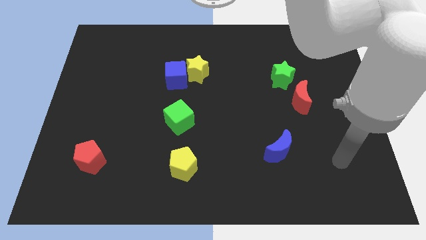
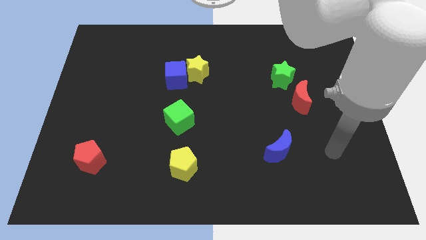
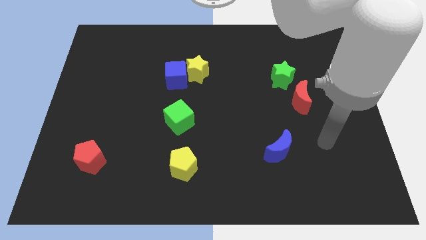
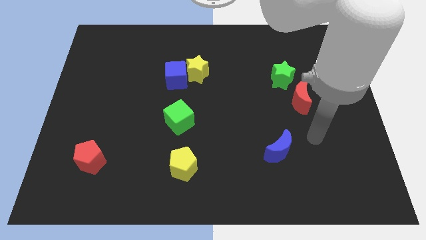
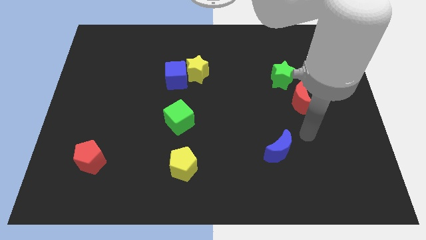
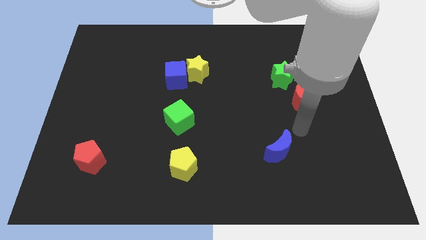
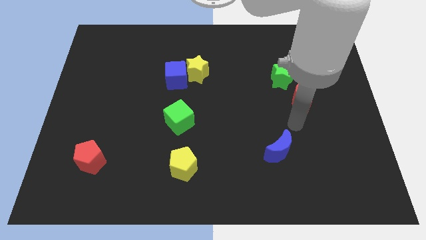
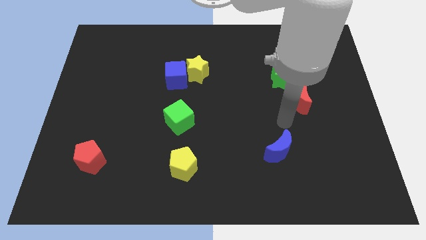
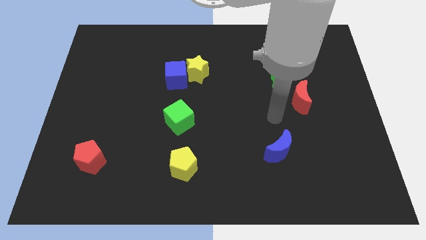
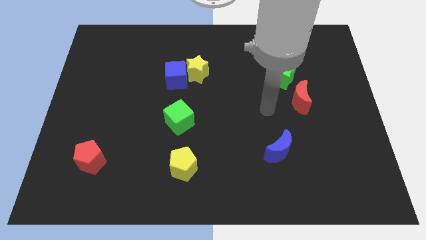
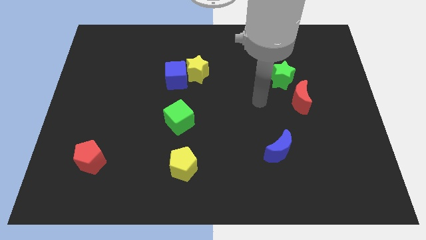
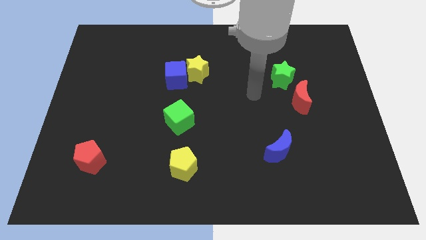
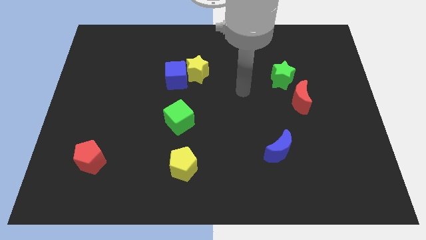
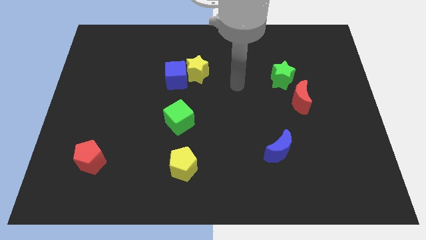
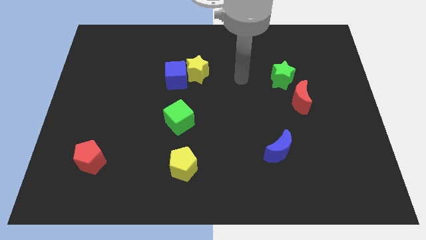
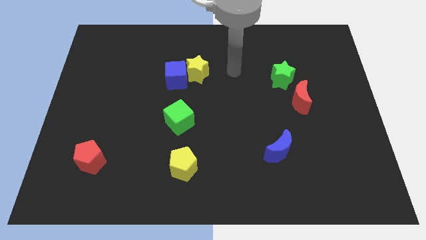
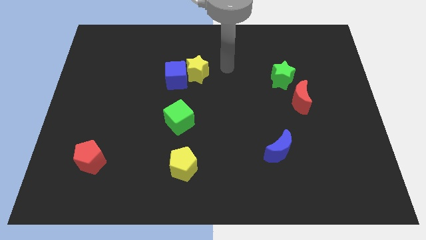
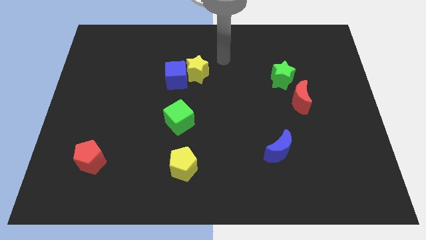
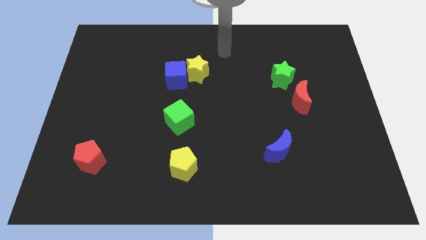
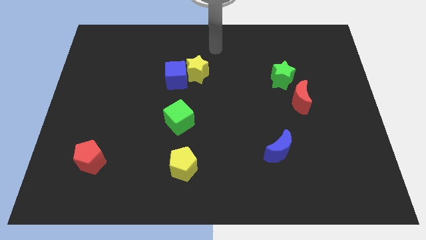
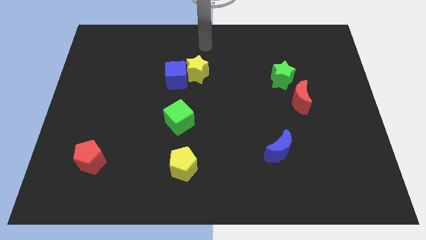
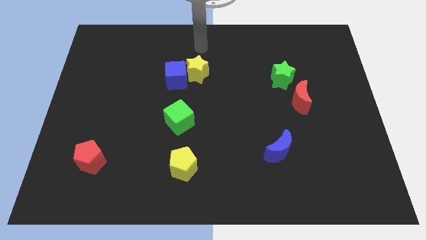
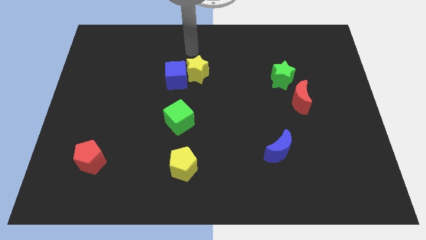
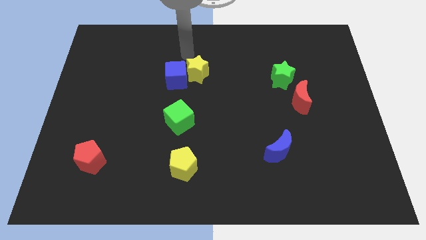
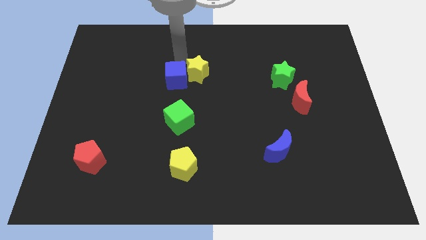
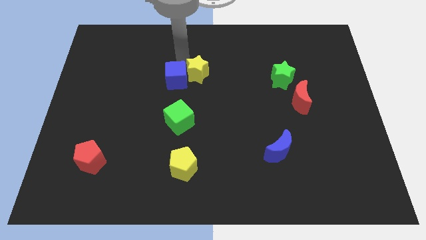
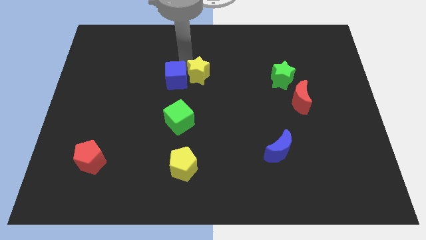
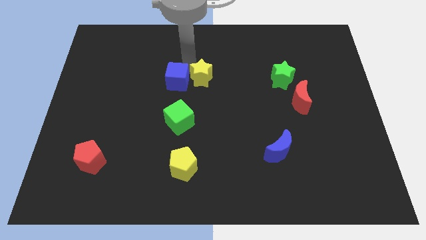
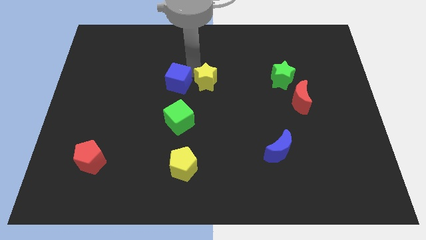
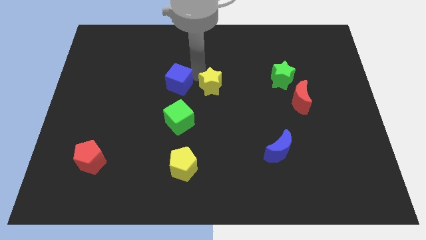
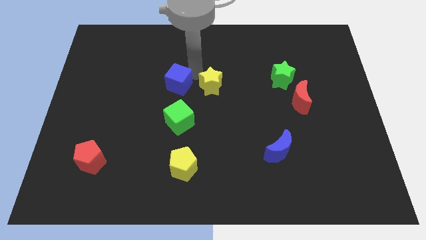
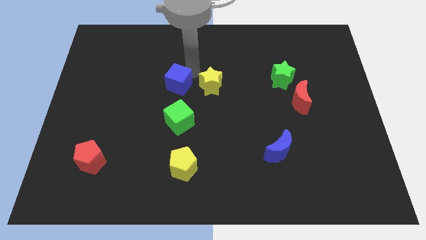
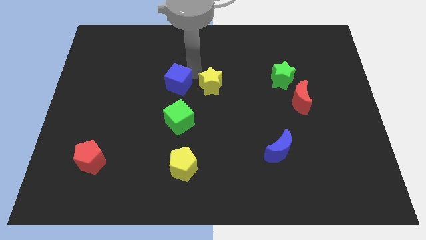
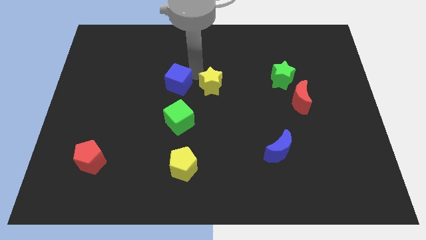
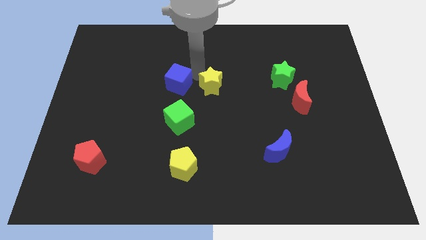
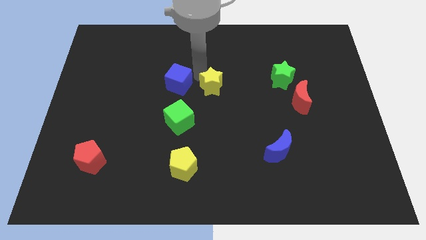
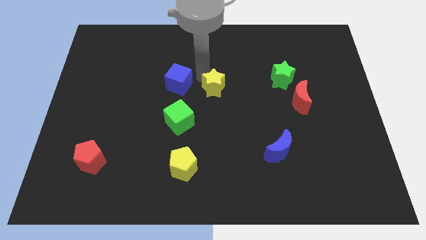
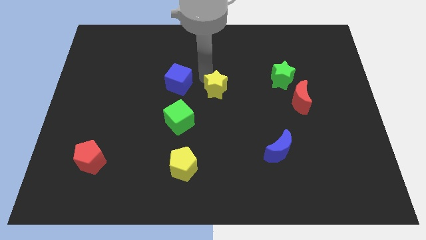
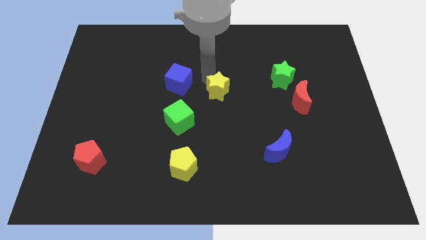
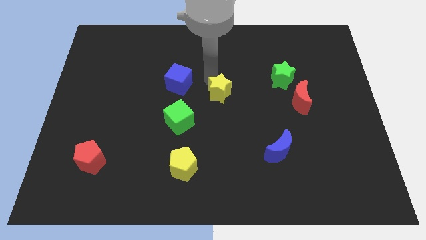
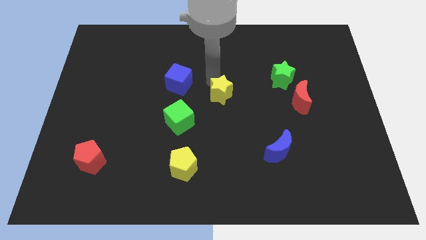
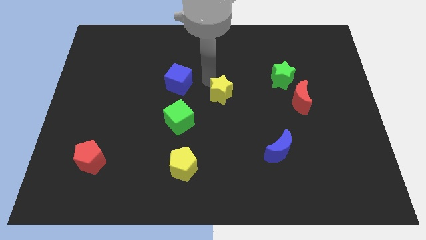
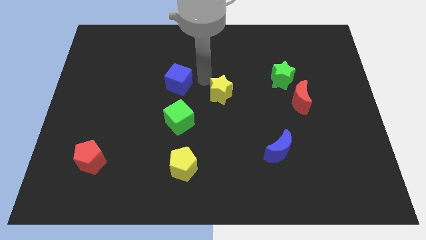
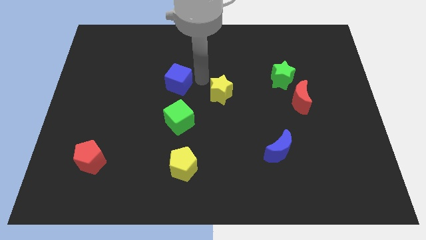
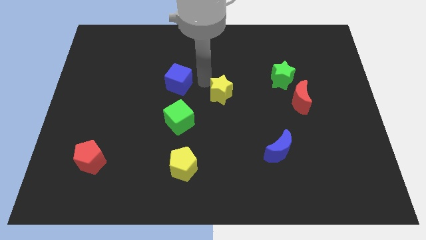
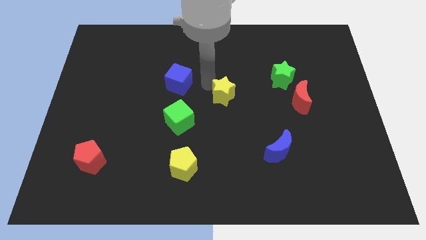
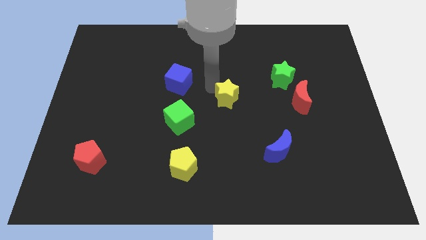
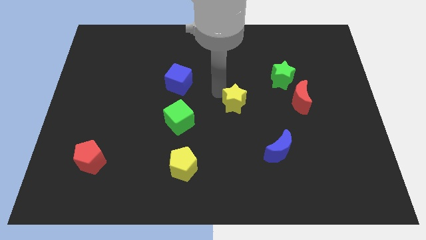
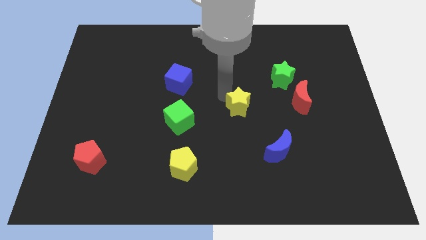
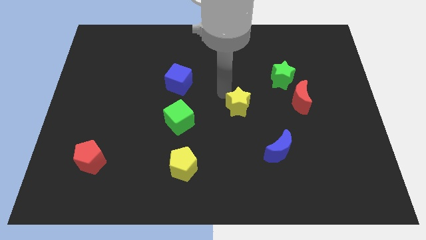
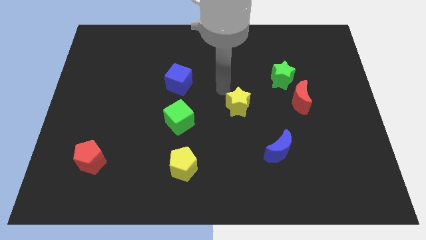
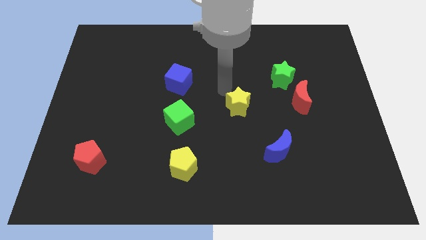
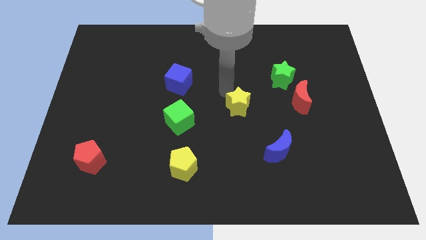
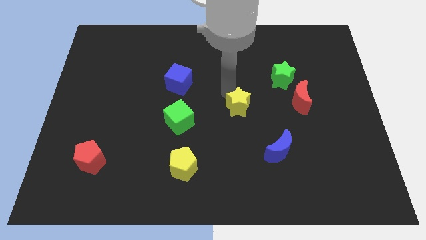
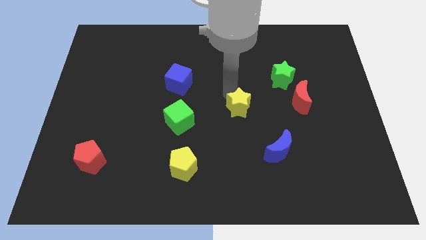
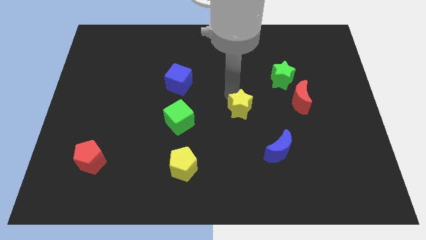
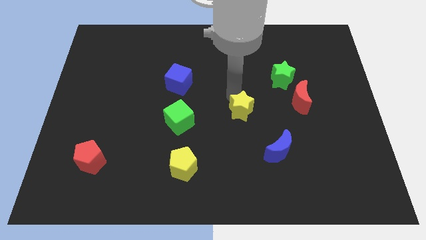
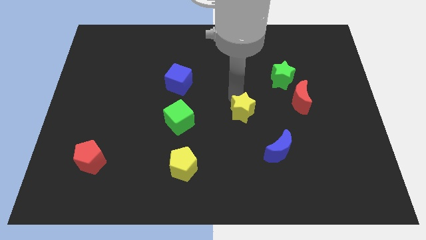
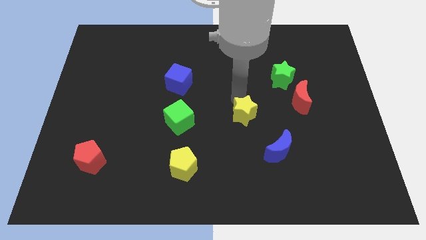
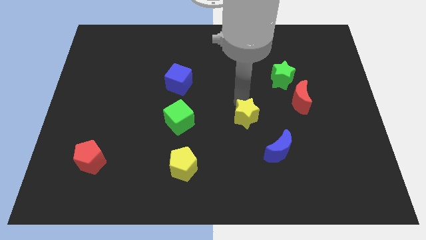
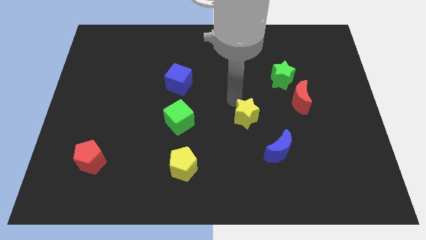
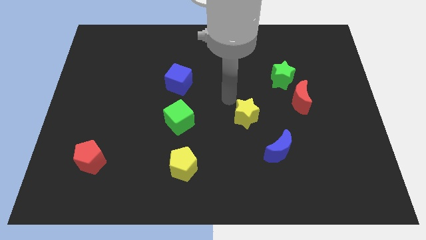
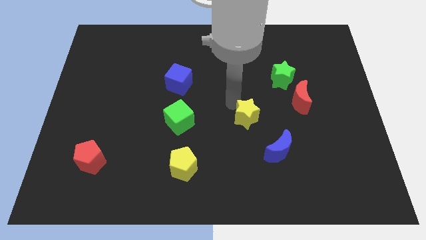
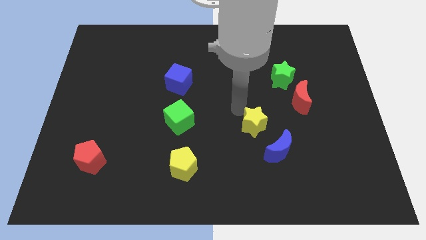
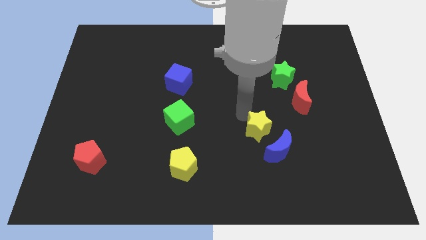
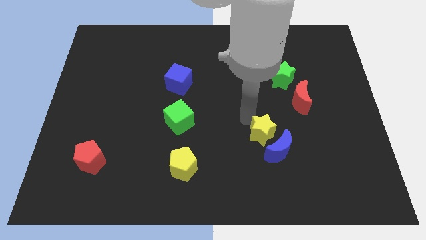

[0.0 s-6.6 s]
move the yellow star towards the blue moon
